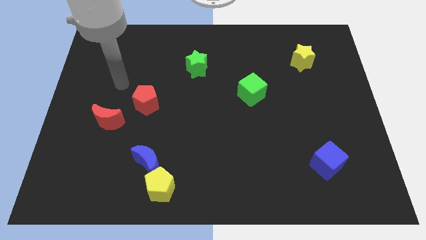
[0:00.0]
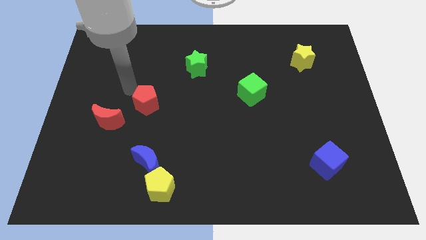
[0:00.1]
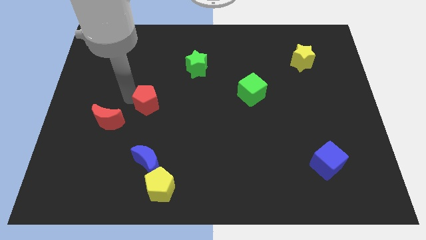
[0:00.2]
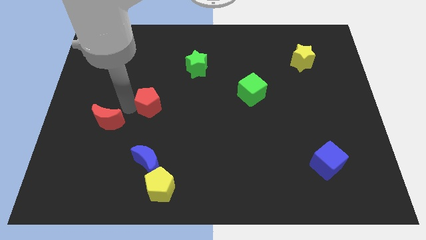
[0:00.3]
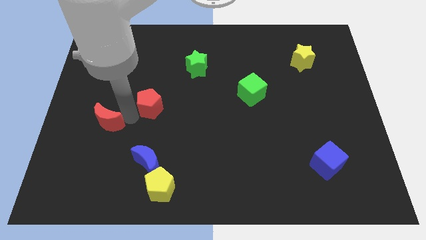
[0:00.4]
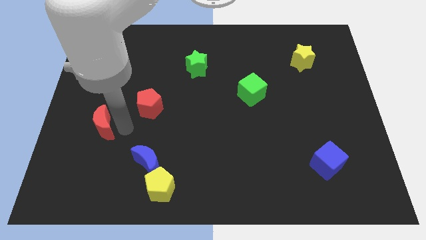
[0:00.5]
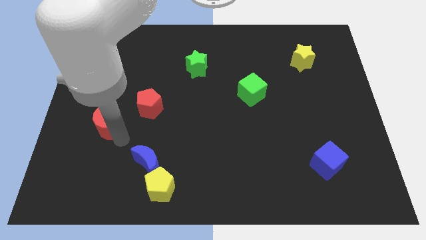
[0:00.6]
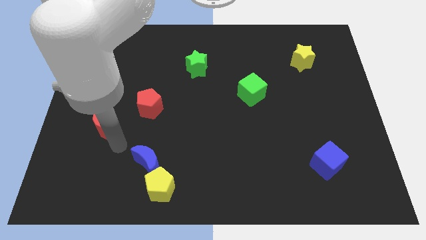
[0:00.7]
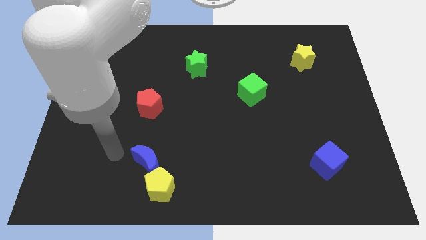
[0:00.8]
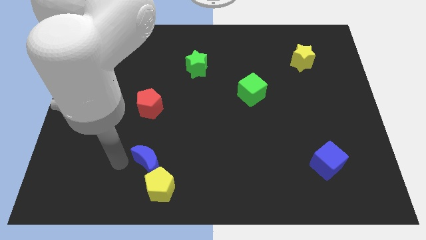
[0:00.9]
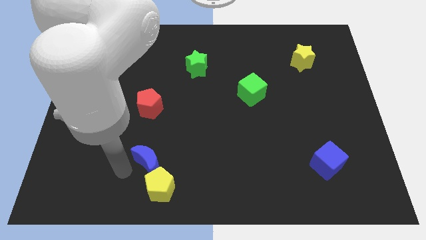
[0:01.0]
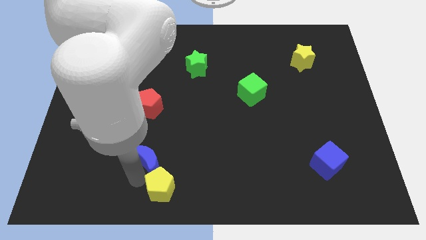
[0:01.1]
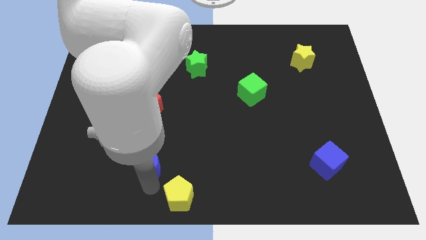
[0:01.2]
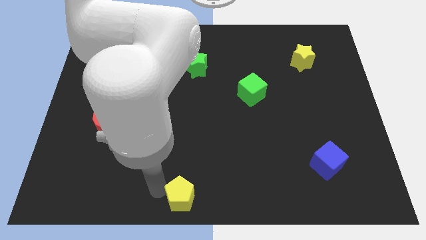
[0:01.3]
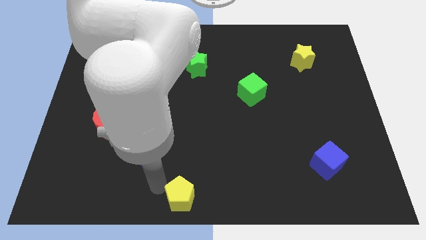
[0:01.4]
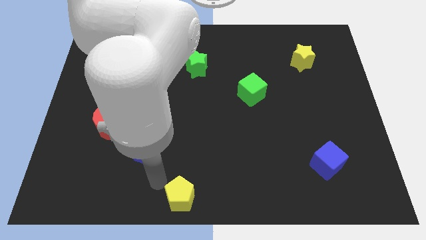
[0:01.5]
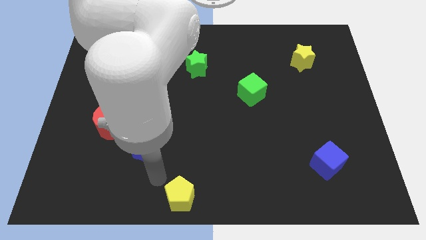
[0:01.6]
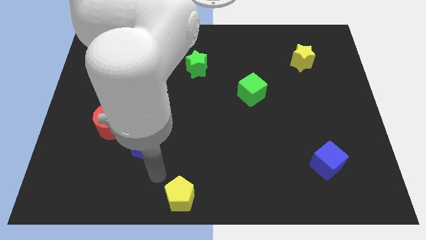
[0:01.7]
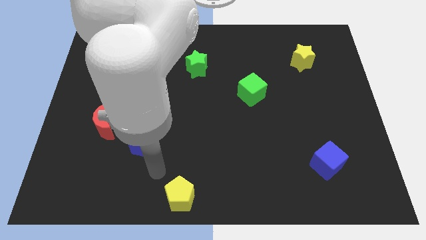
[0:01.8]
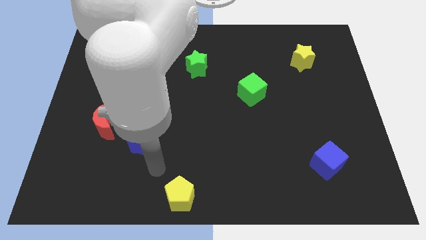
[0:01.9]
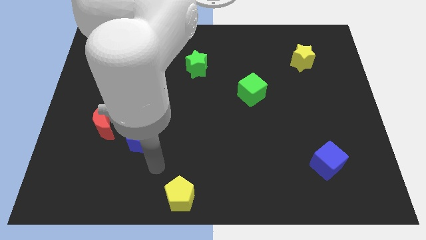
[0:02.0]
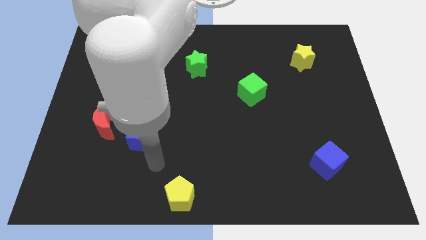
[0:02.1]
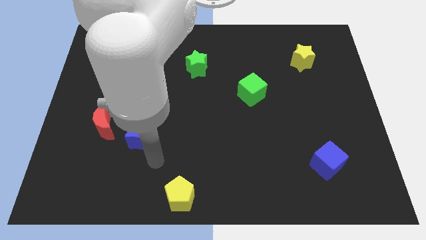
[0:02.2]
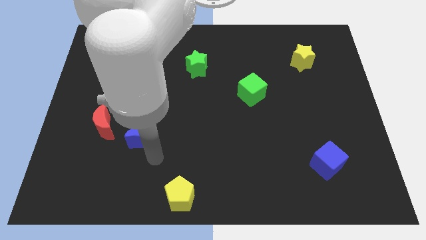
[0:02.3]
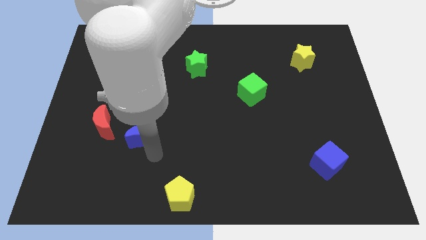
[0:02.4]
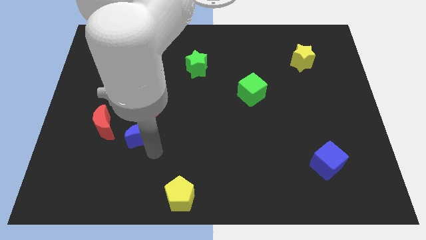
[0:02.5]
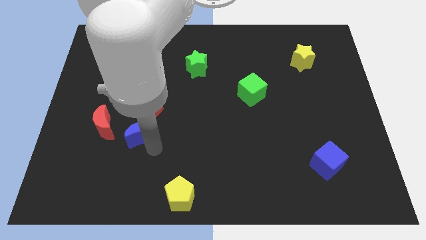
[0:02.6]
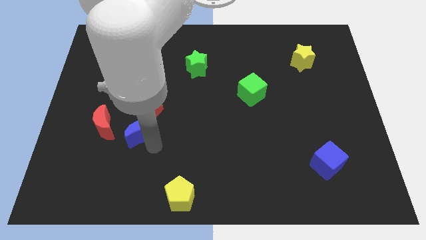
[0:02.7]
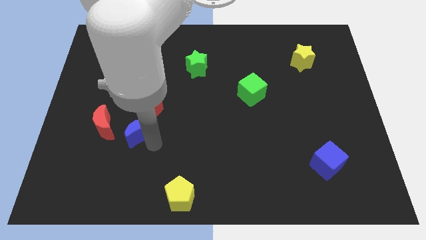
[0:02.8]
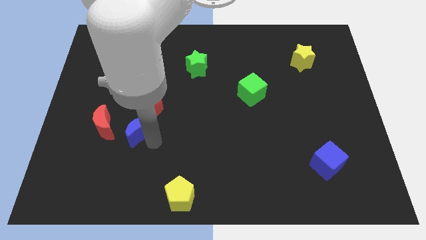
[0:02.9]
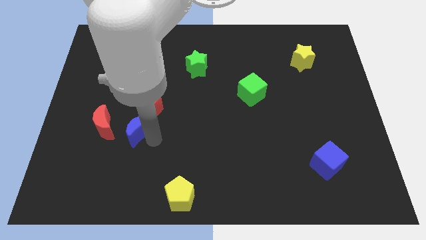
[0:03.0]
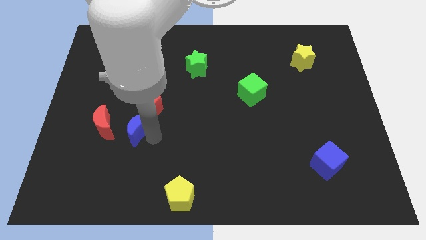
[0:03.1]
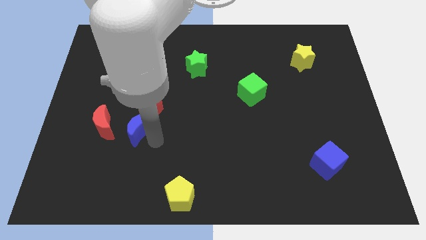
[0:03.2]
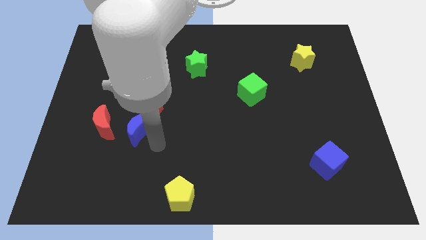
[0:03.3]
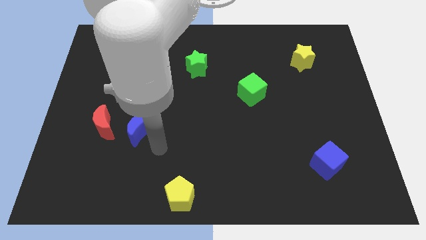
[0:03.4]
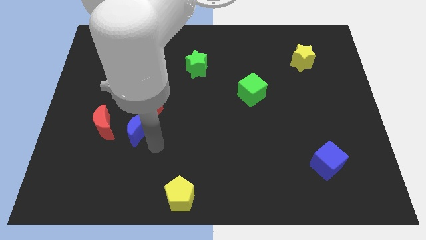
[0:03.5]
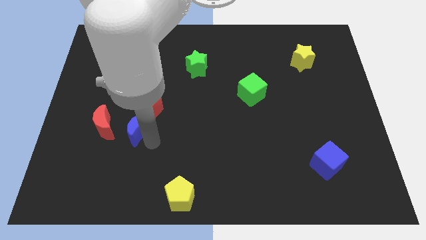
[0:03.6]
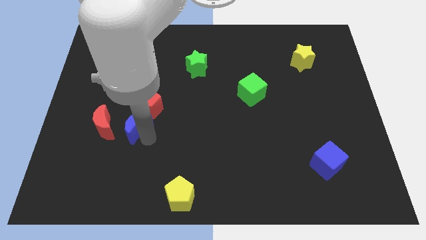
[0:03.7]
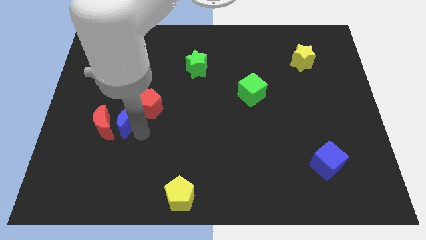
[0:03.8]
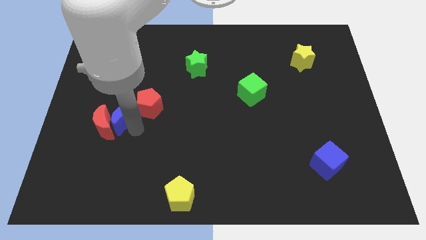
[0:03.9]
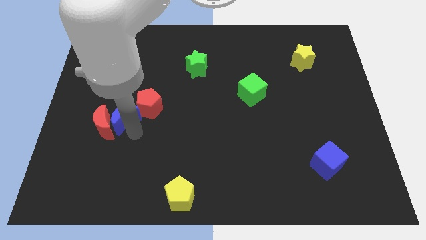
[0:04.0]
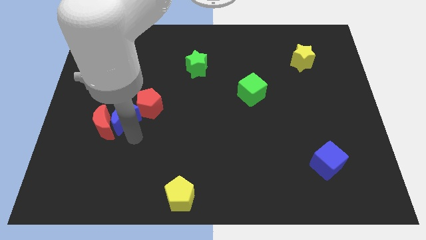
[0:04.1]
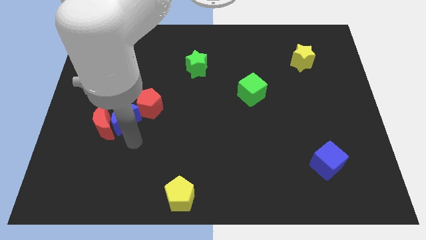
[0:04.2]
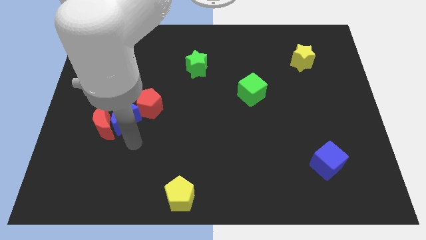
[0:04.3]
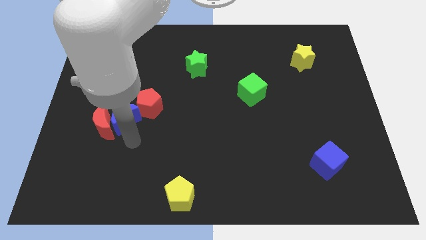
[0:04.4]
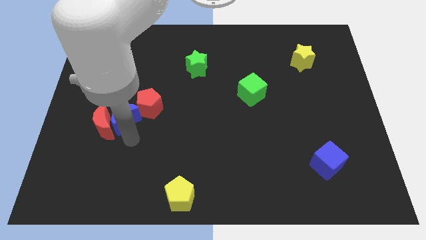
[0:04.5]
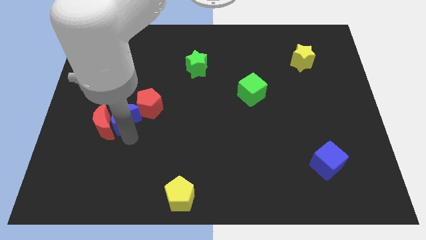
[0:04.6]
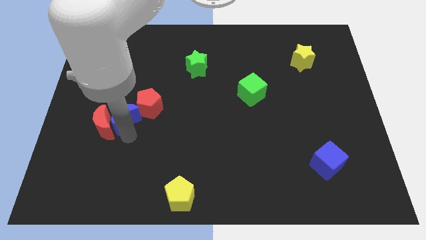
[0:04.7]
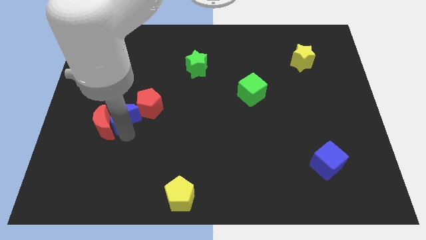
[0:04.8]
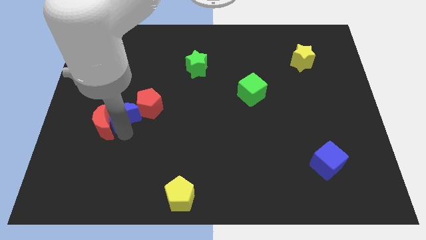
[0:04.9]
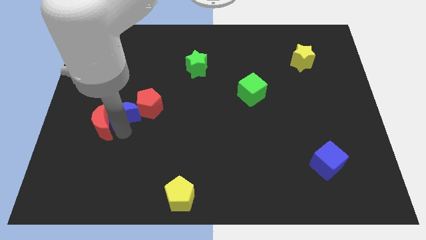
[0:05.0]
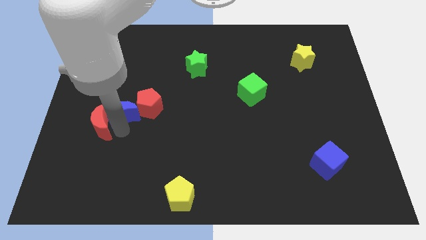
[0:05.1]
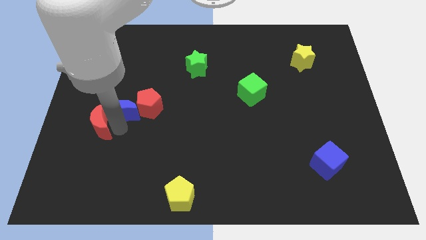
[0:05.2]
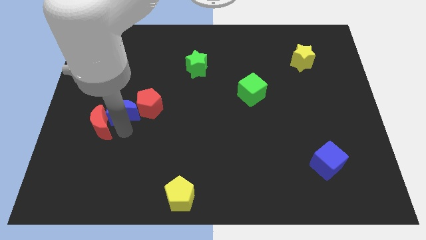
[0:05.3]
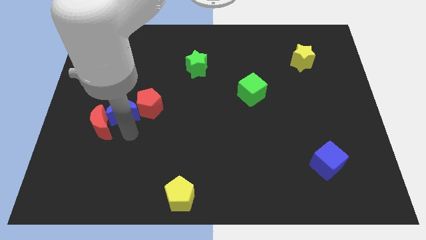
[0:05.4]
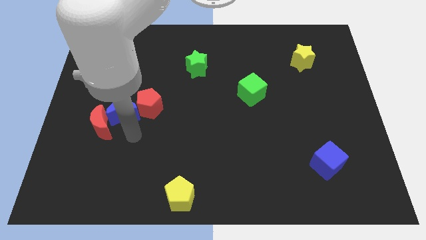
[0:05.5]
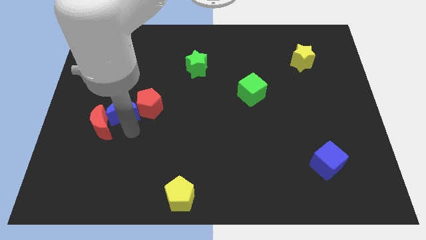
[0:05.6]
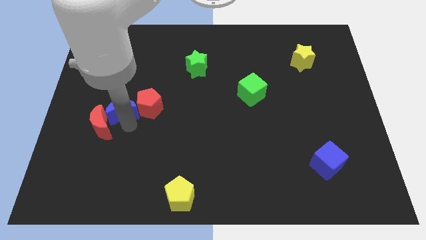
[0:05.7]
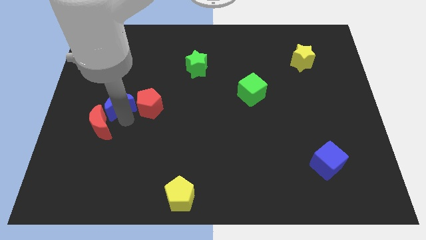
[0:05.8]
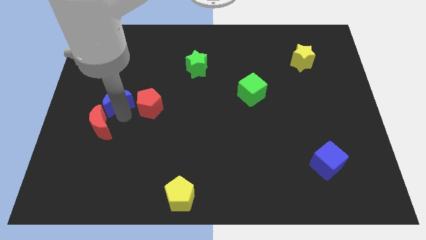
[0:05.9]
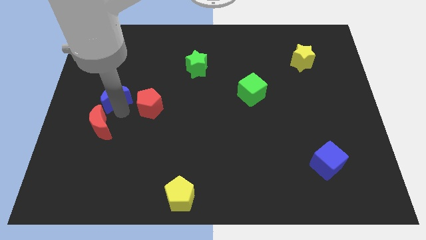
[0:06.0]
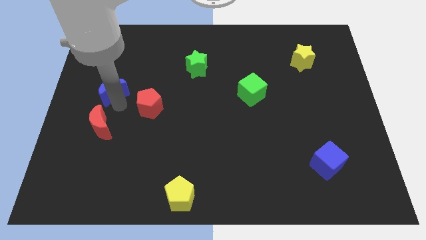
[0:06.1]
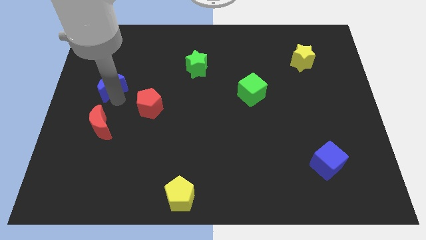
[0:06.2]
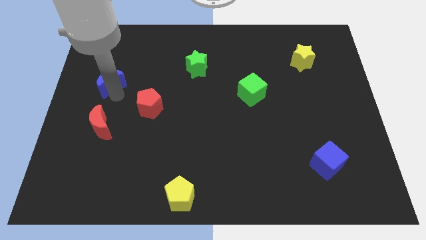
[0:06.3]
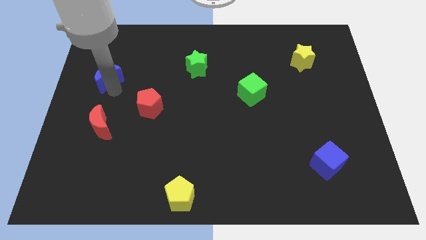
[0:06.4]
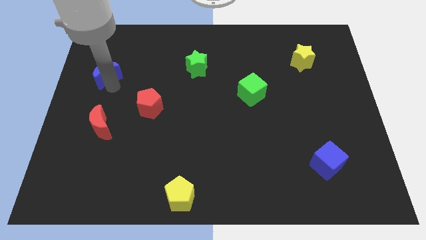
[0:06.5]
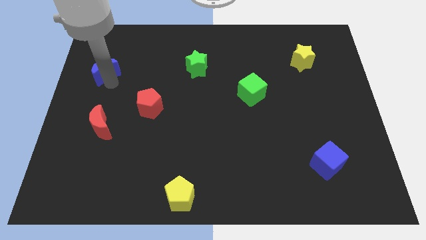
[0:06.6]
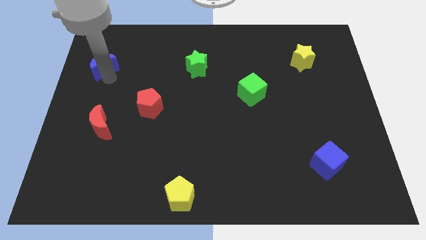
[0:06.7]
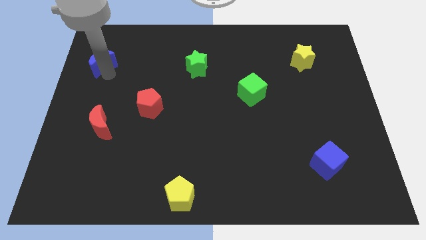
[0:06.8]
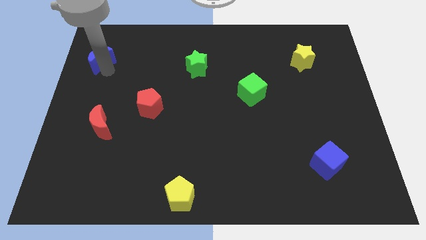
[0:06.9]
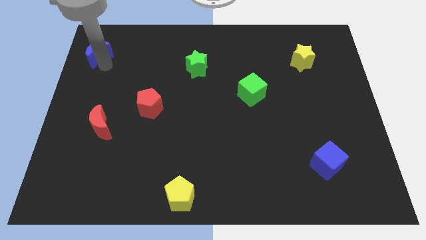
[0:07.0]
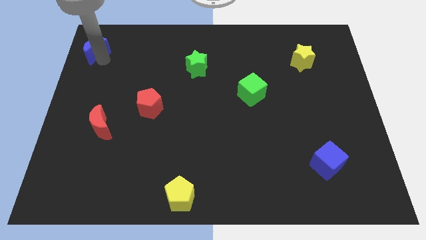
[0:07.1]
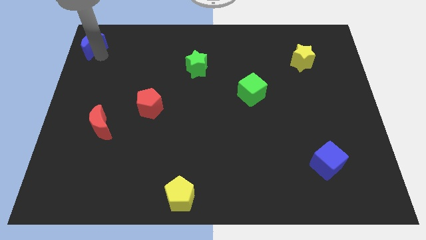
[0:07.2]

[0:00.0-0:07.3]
move the blue moon to the top left corner

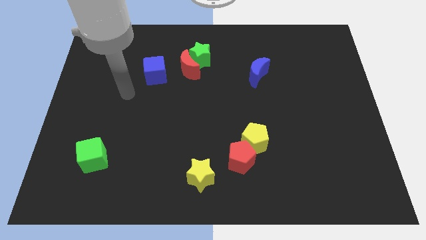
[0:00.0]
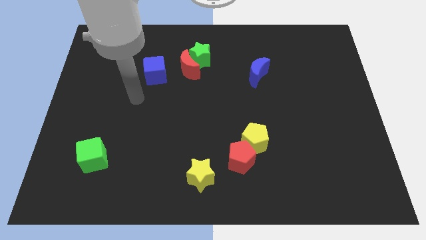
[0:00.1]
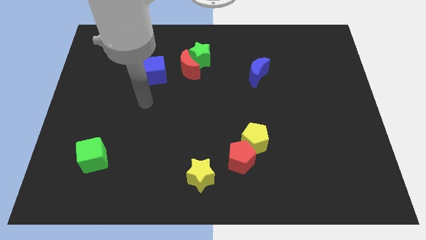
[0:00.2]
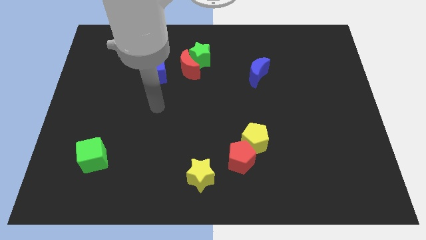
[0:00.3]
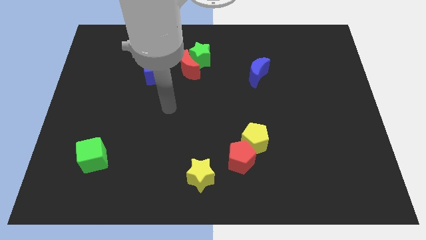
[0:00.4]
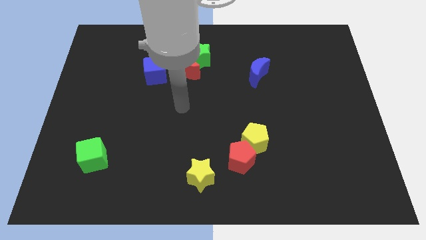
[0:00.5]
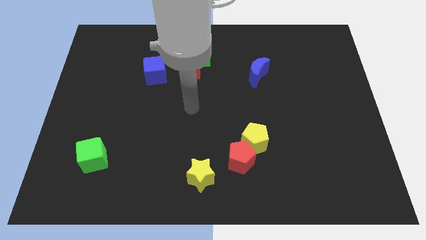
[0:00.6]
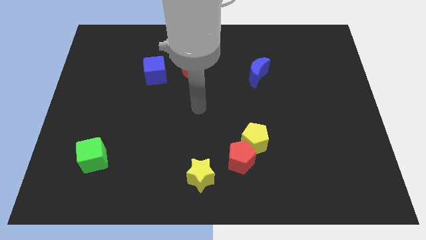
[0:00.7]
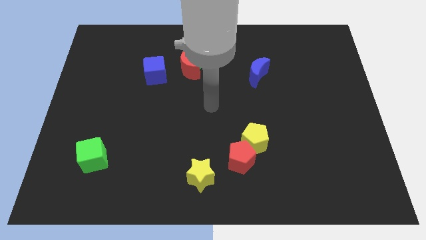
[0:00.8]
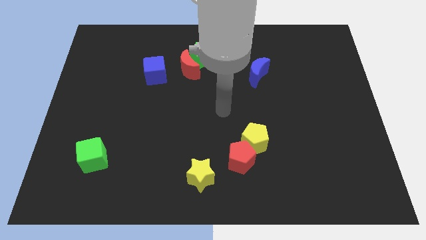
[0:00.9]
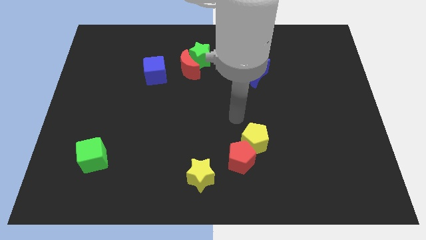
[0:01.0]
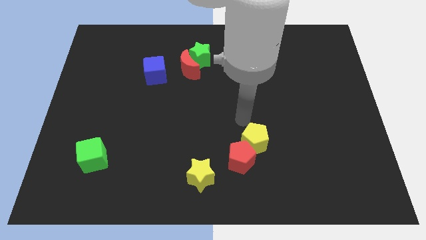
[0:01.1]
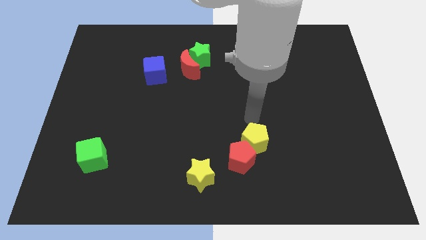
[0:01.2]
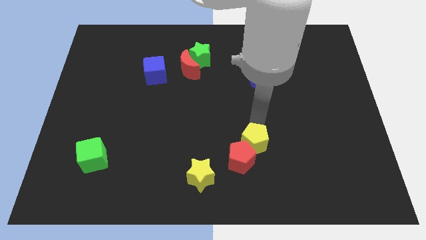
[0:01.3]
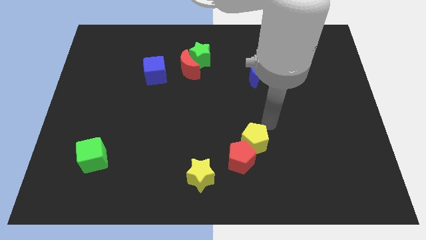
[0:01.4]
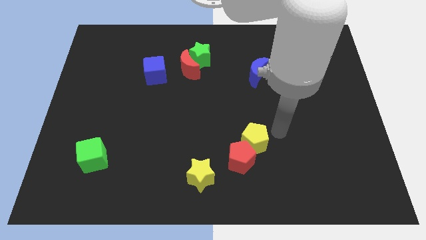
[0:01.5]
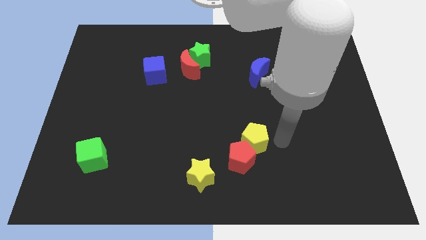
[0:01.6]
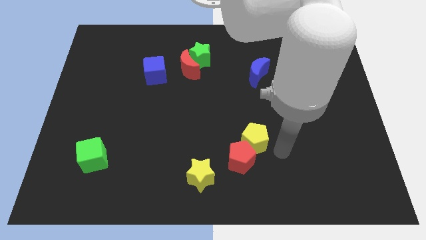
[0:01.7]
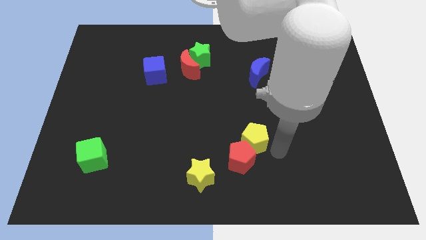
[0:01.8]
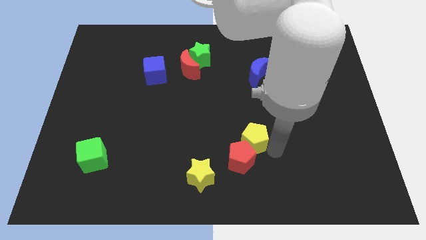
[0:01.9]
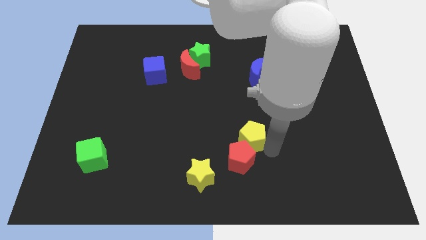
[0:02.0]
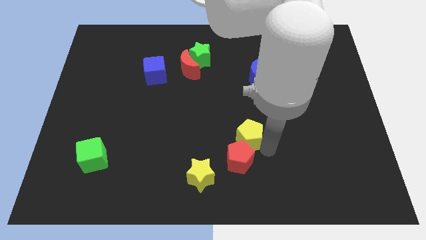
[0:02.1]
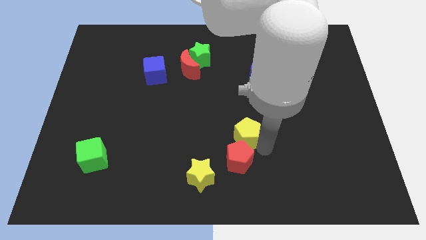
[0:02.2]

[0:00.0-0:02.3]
move the yellow pentagon to the center of the board
